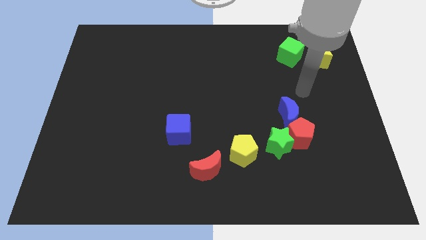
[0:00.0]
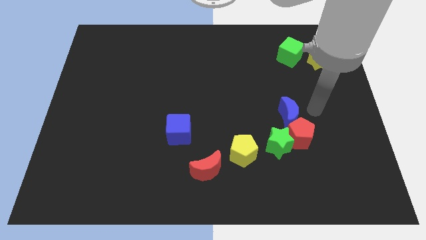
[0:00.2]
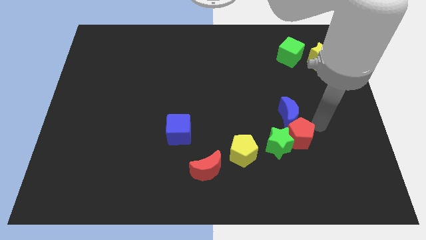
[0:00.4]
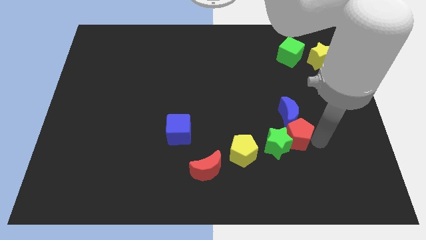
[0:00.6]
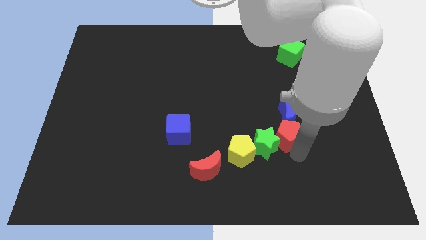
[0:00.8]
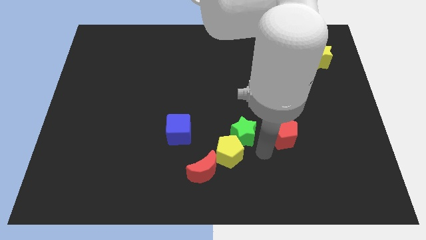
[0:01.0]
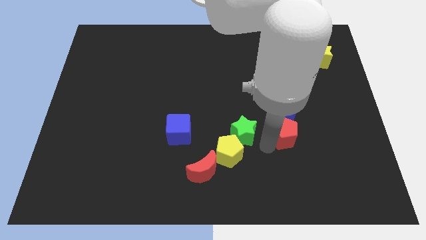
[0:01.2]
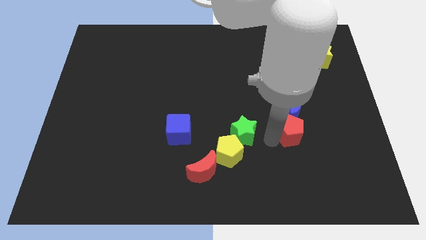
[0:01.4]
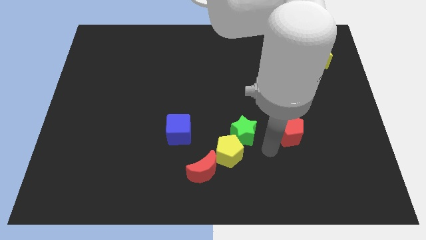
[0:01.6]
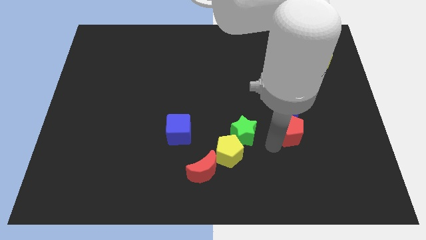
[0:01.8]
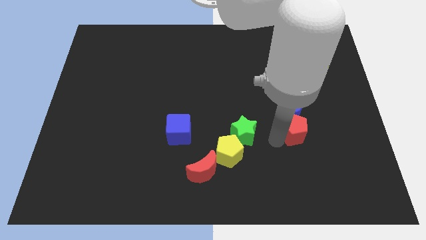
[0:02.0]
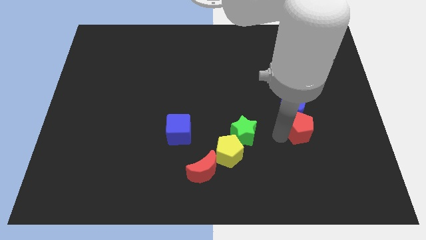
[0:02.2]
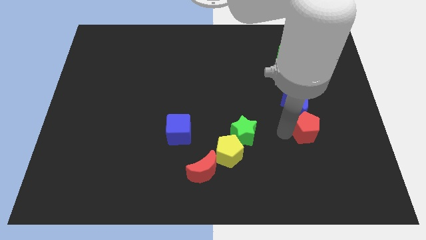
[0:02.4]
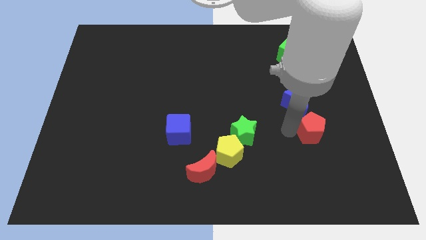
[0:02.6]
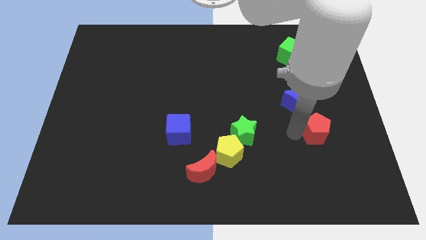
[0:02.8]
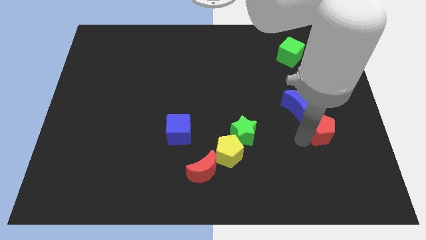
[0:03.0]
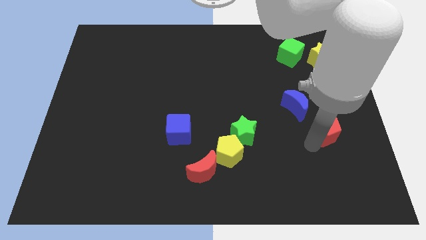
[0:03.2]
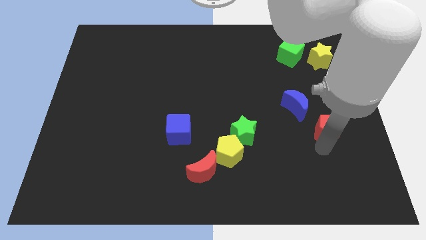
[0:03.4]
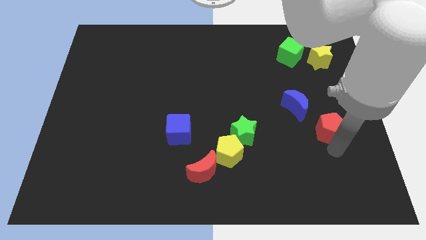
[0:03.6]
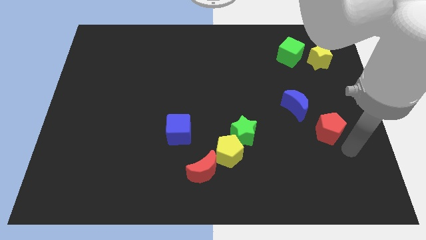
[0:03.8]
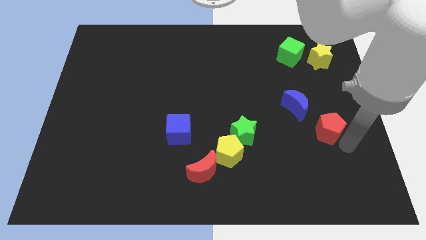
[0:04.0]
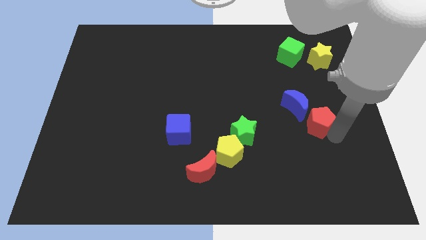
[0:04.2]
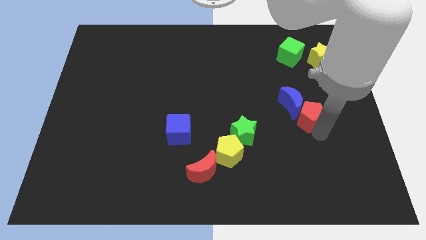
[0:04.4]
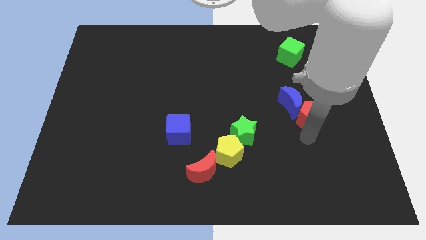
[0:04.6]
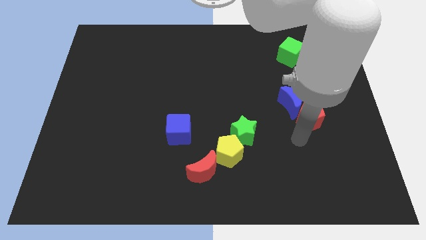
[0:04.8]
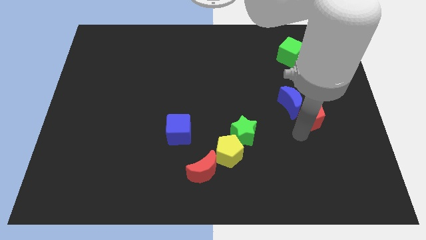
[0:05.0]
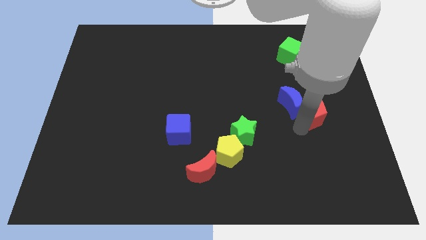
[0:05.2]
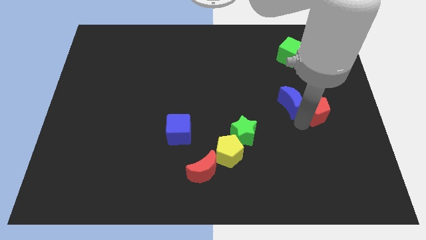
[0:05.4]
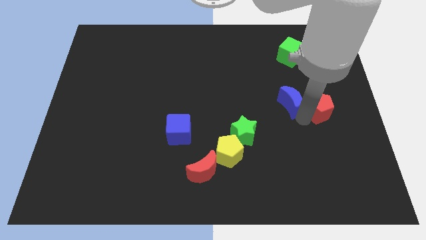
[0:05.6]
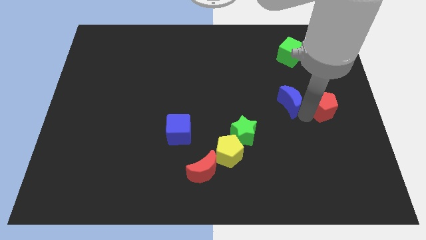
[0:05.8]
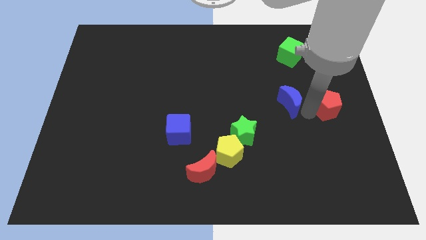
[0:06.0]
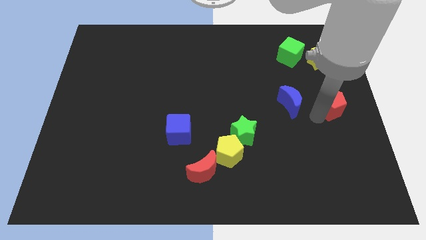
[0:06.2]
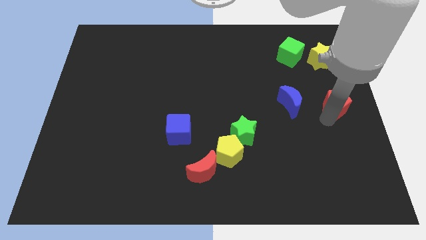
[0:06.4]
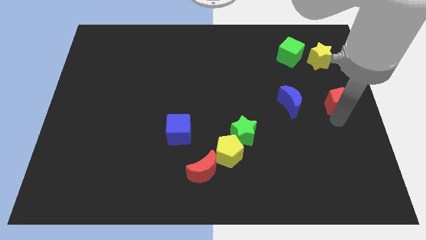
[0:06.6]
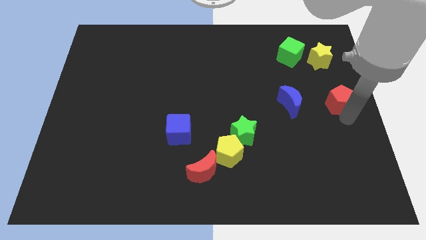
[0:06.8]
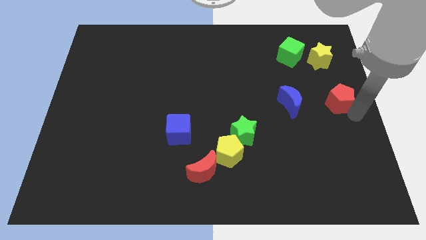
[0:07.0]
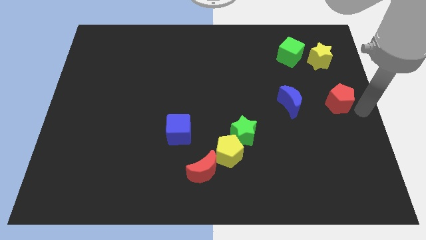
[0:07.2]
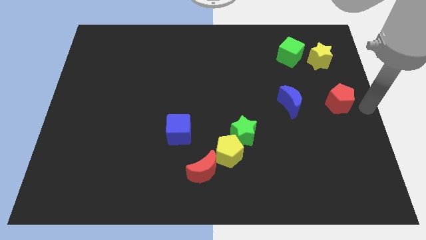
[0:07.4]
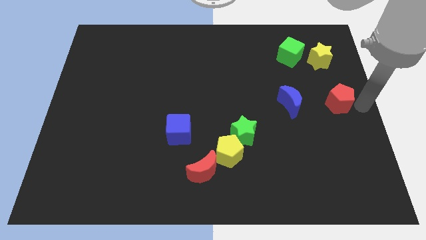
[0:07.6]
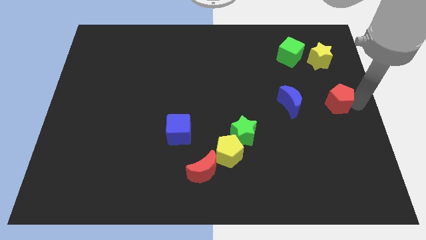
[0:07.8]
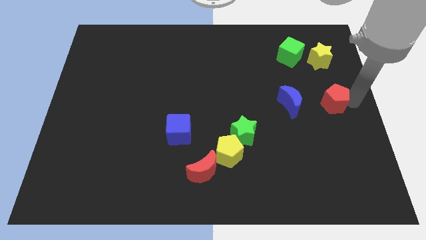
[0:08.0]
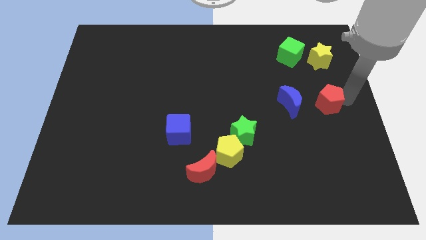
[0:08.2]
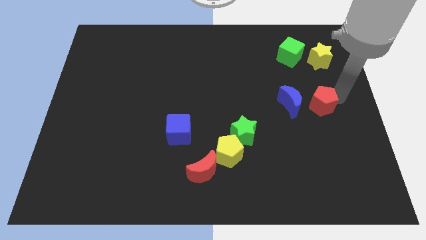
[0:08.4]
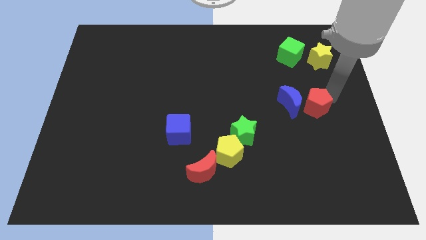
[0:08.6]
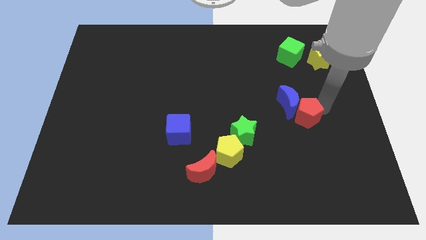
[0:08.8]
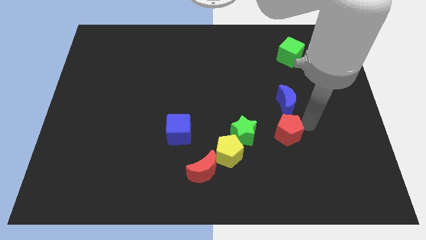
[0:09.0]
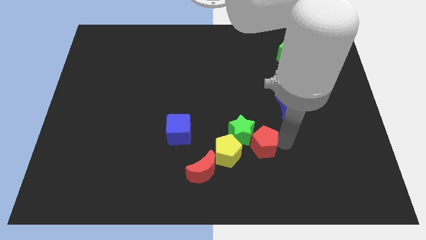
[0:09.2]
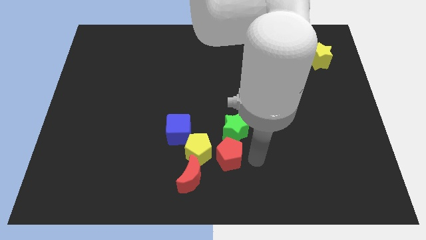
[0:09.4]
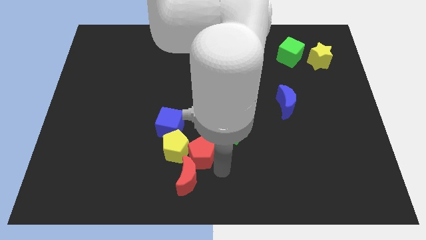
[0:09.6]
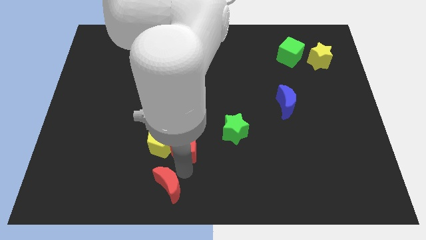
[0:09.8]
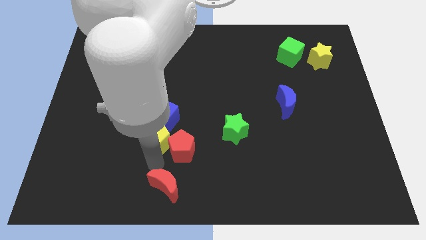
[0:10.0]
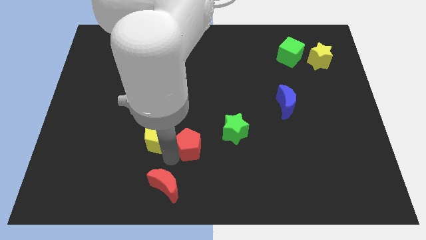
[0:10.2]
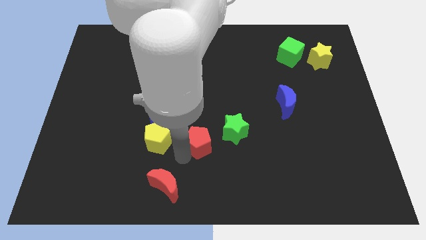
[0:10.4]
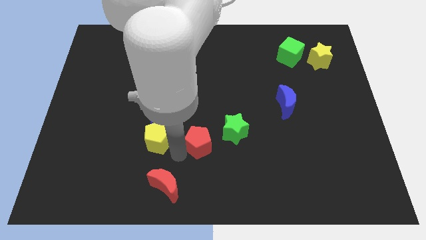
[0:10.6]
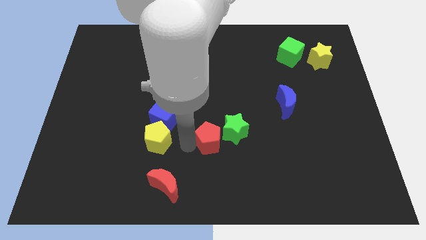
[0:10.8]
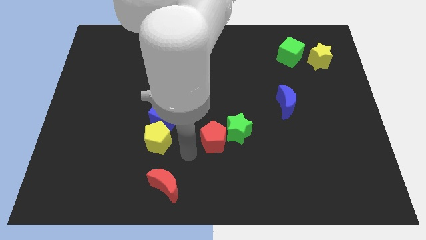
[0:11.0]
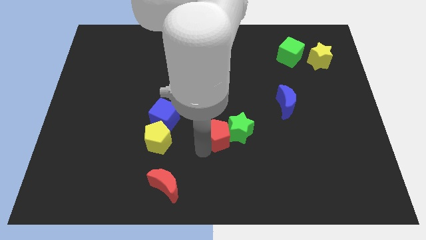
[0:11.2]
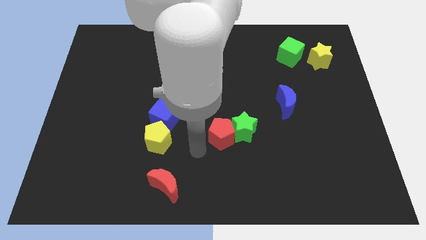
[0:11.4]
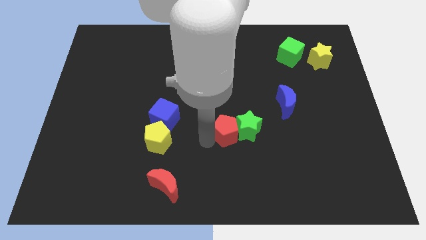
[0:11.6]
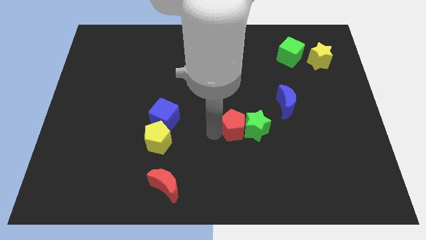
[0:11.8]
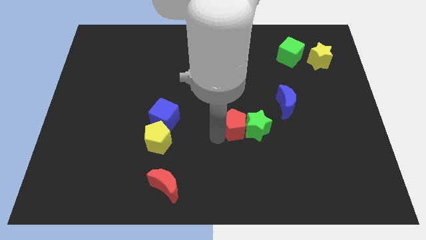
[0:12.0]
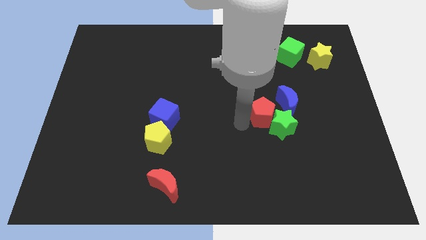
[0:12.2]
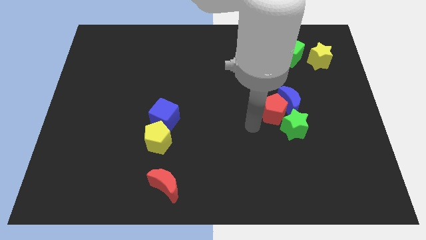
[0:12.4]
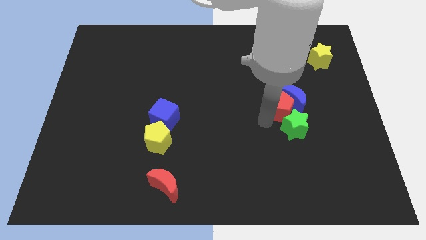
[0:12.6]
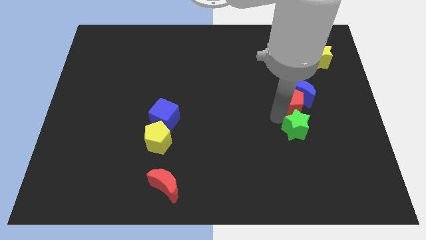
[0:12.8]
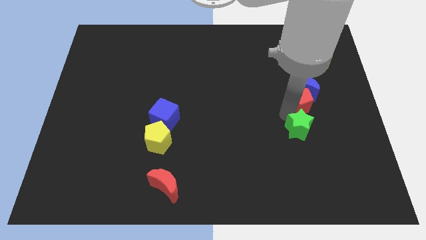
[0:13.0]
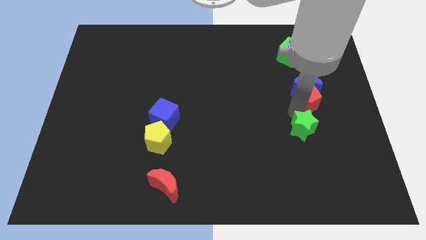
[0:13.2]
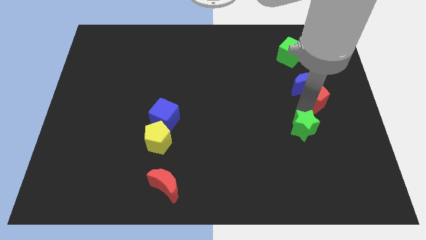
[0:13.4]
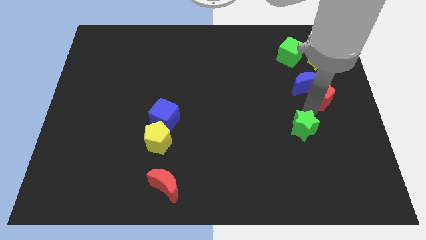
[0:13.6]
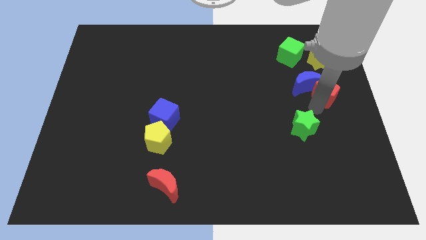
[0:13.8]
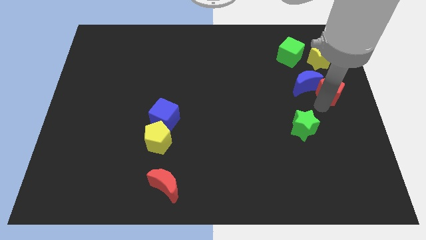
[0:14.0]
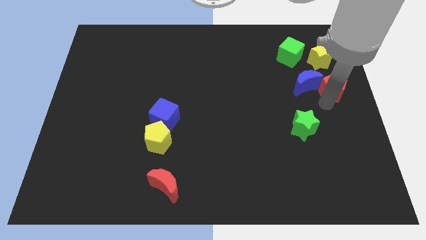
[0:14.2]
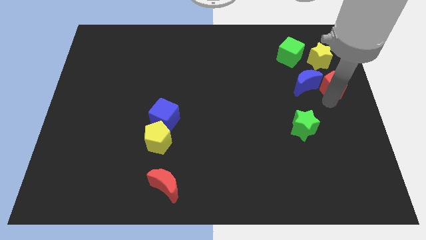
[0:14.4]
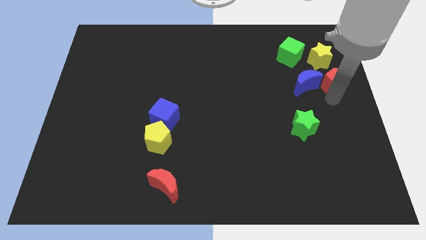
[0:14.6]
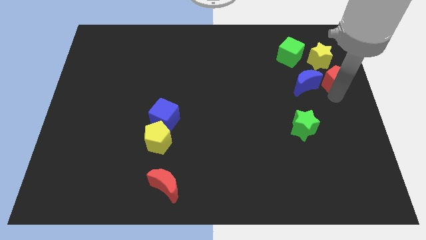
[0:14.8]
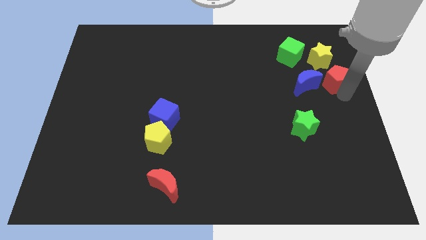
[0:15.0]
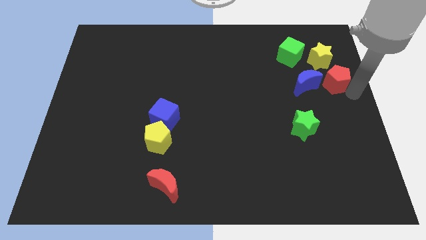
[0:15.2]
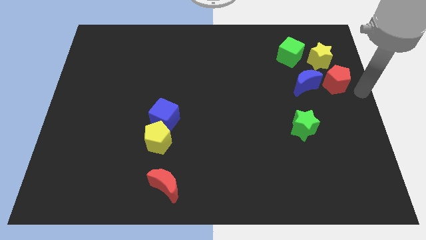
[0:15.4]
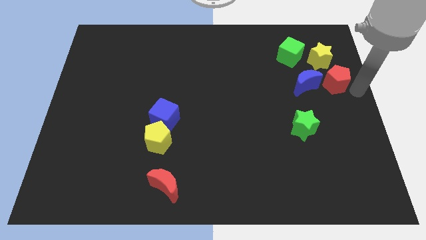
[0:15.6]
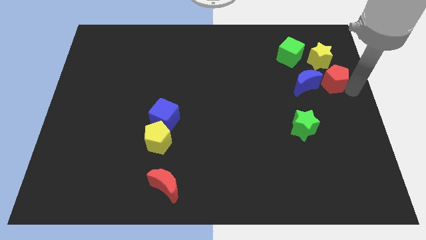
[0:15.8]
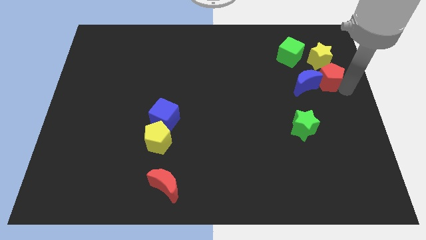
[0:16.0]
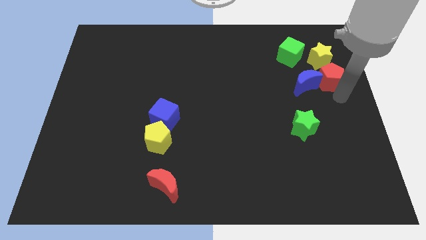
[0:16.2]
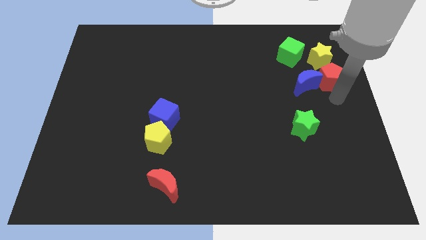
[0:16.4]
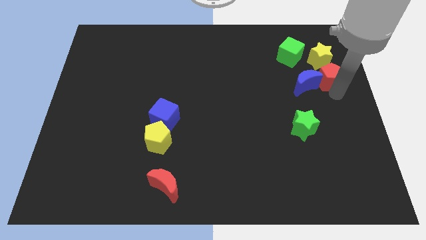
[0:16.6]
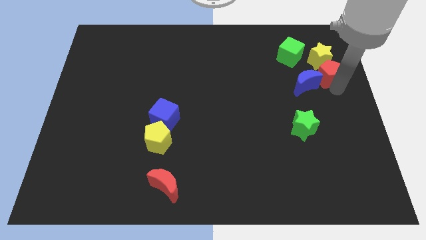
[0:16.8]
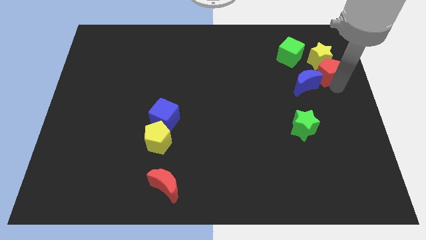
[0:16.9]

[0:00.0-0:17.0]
put the red pentagon next to the yellow star
